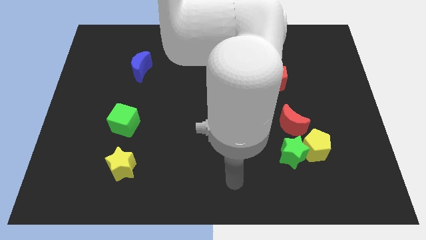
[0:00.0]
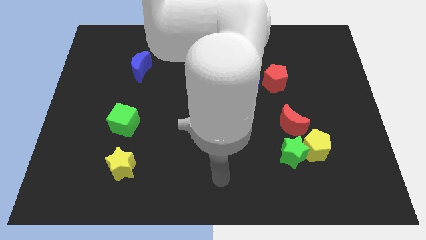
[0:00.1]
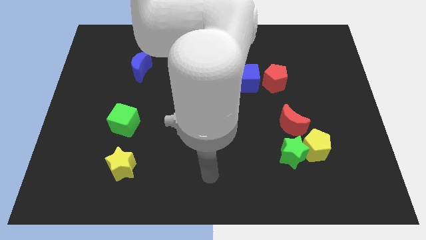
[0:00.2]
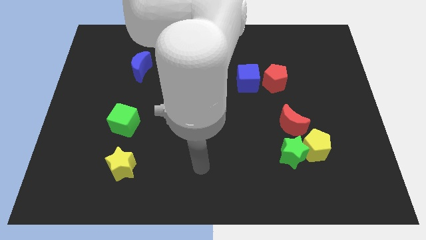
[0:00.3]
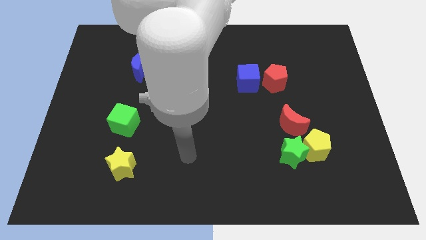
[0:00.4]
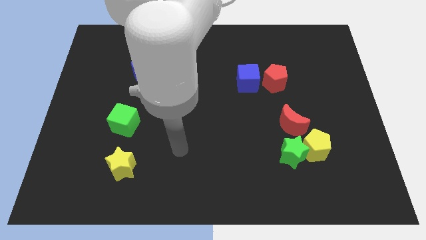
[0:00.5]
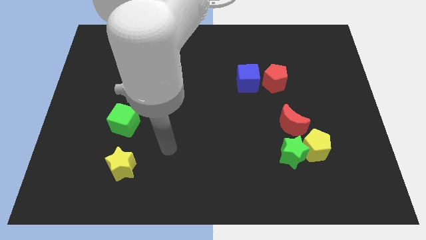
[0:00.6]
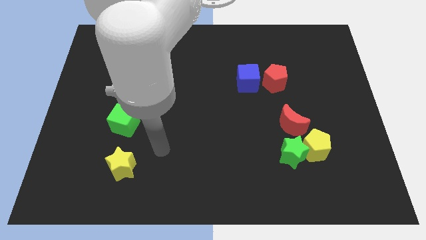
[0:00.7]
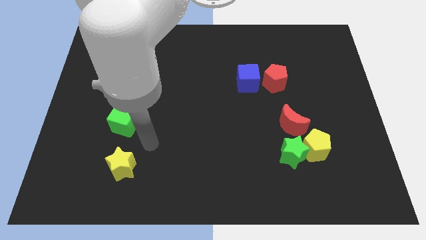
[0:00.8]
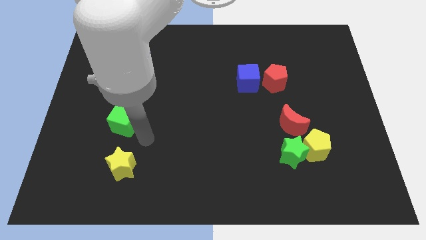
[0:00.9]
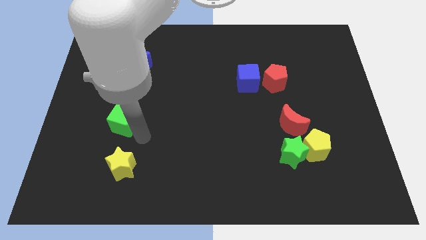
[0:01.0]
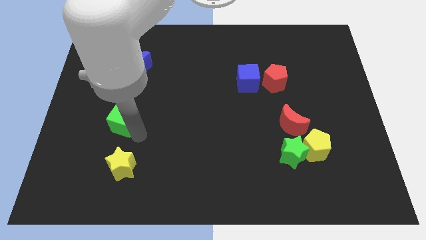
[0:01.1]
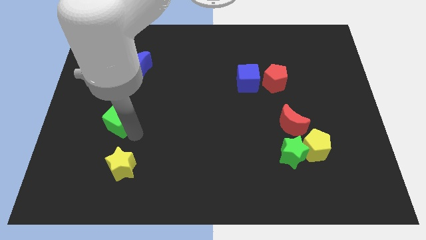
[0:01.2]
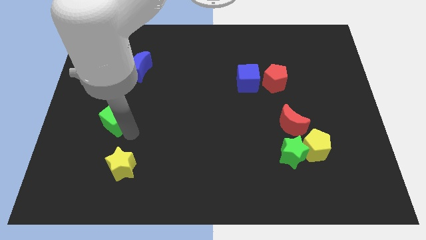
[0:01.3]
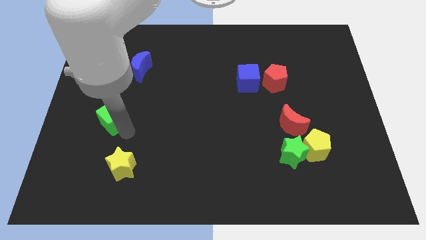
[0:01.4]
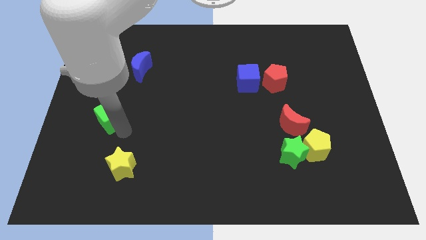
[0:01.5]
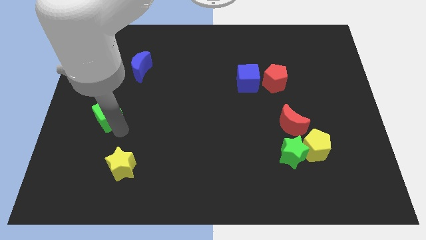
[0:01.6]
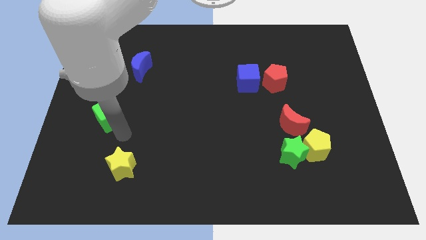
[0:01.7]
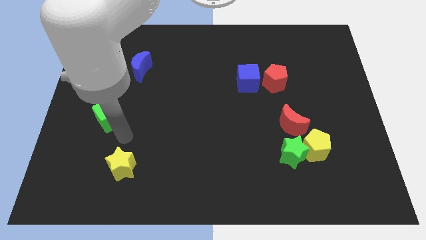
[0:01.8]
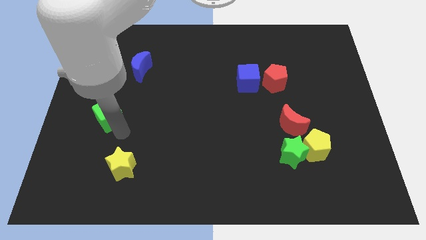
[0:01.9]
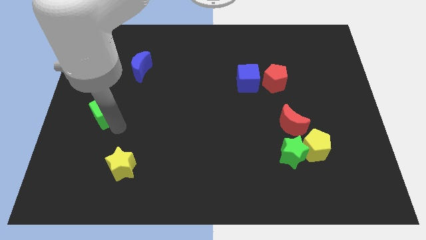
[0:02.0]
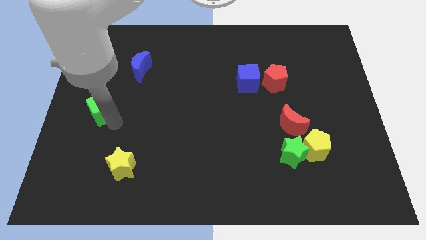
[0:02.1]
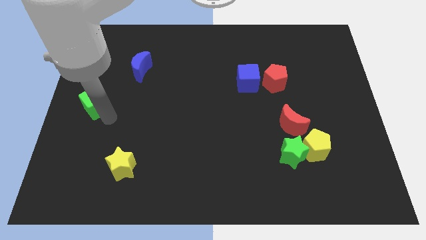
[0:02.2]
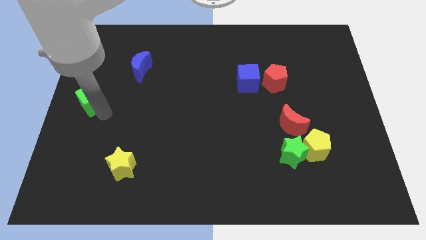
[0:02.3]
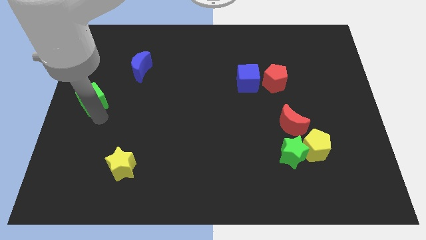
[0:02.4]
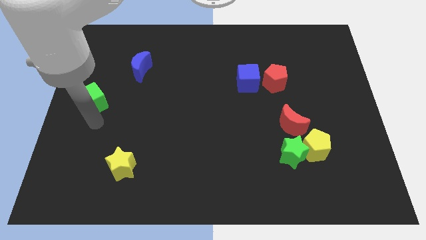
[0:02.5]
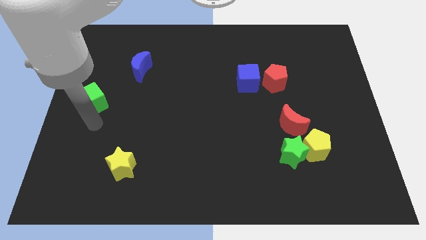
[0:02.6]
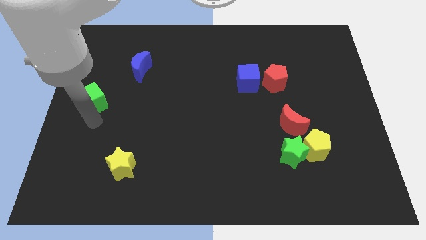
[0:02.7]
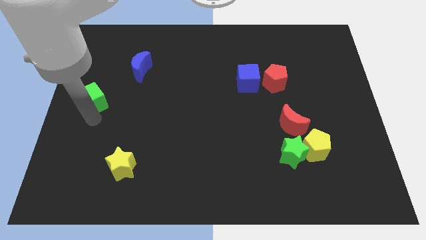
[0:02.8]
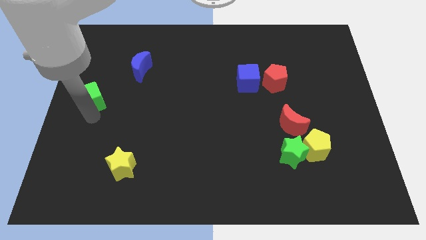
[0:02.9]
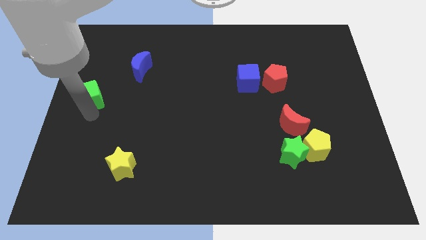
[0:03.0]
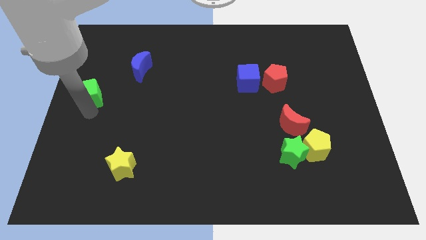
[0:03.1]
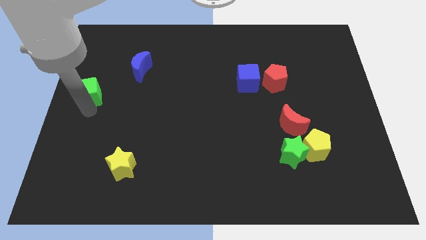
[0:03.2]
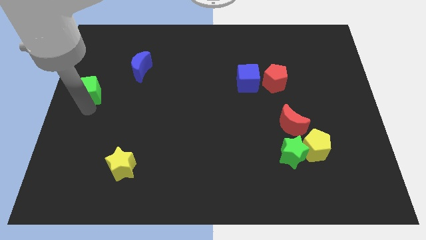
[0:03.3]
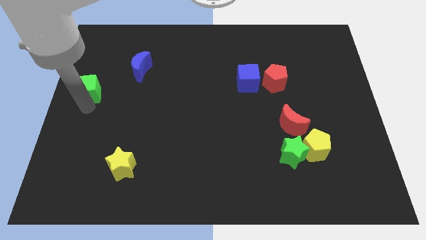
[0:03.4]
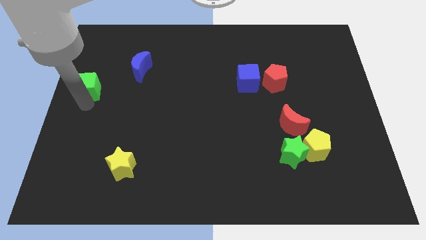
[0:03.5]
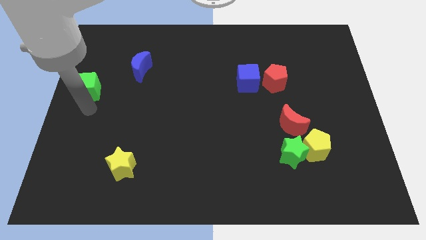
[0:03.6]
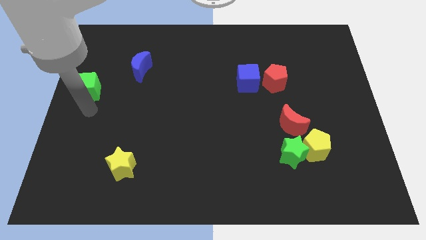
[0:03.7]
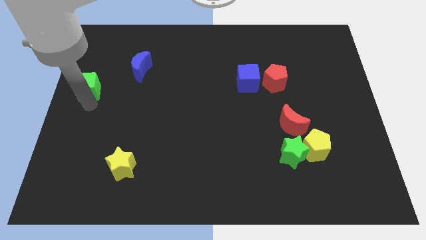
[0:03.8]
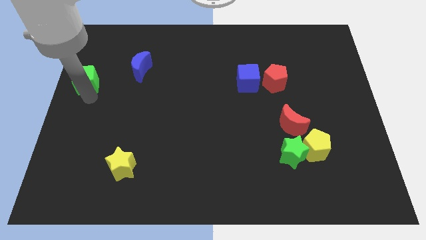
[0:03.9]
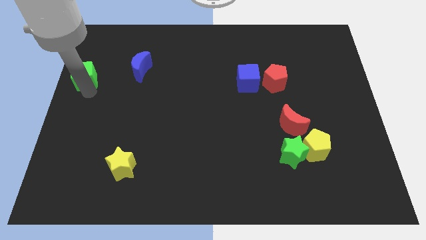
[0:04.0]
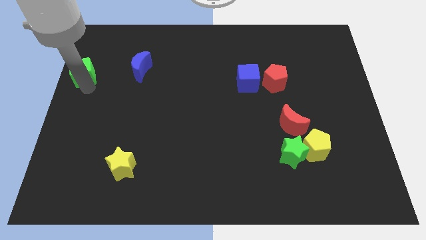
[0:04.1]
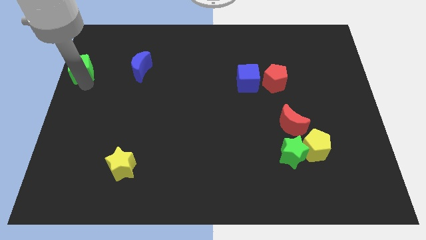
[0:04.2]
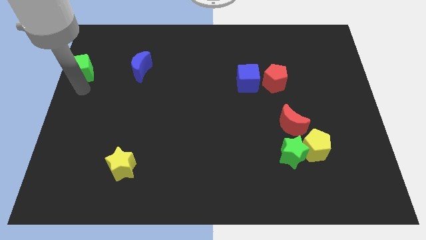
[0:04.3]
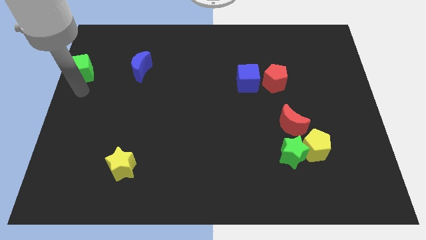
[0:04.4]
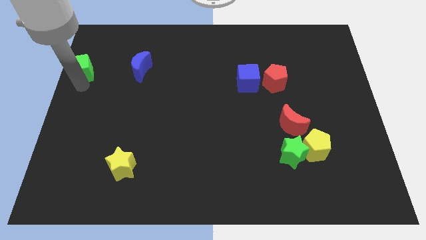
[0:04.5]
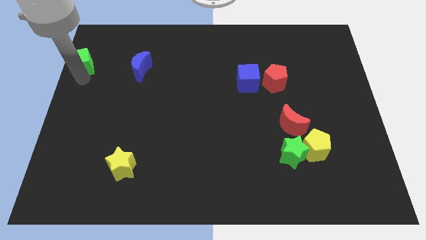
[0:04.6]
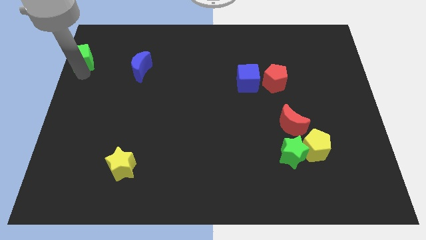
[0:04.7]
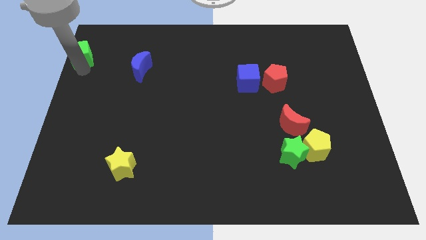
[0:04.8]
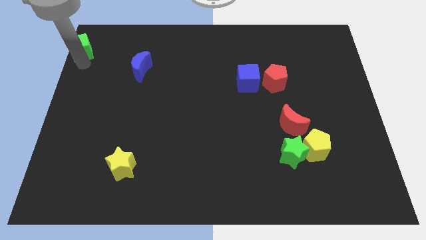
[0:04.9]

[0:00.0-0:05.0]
slide the green cube to the upper left corner
